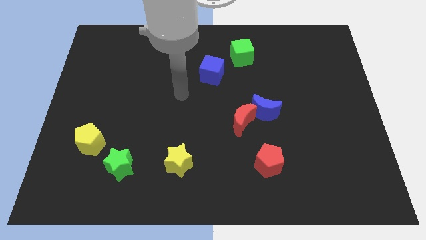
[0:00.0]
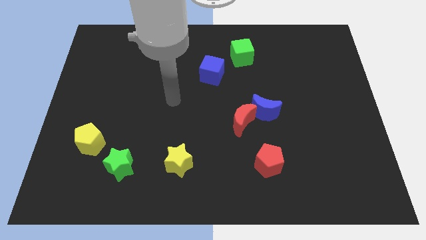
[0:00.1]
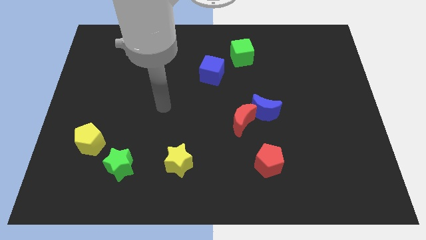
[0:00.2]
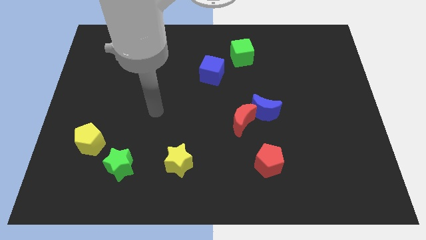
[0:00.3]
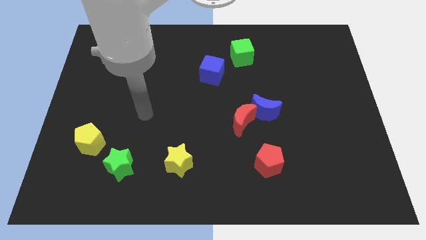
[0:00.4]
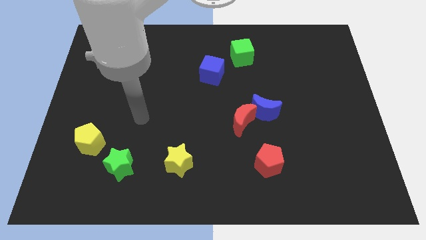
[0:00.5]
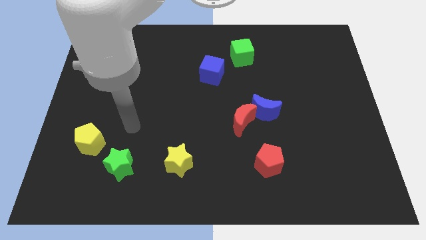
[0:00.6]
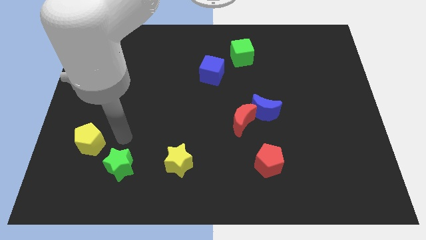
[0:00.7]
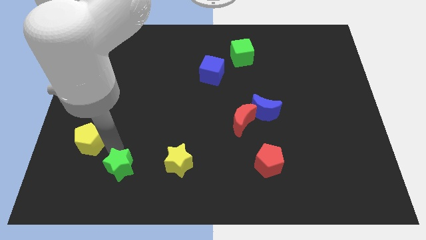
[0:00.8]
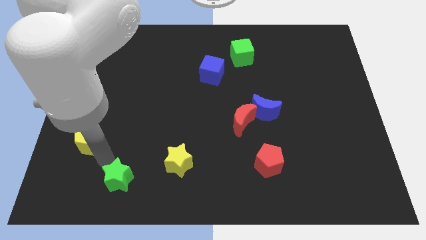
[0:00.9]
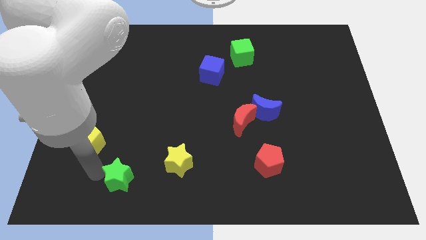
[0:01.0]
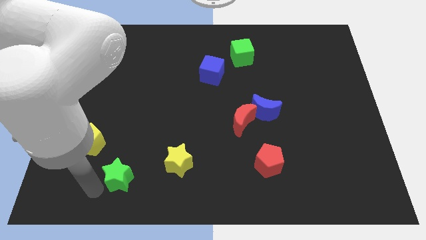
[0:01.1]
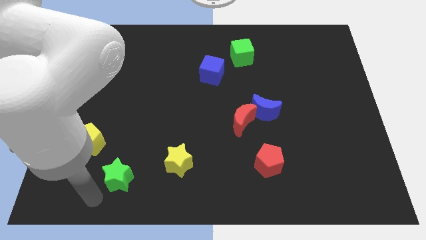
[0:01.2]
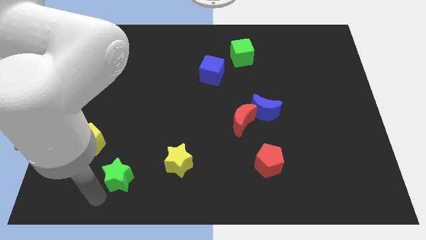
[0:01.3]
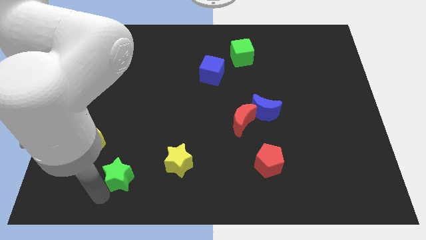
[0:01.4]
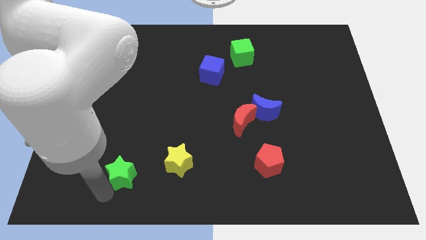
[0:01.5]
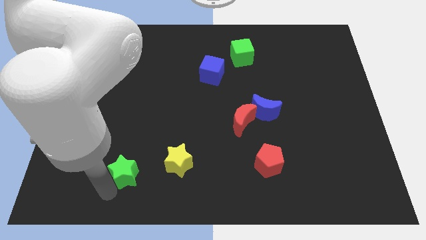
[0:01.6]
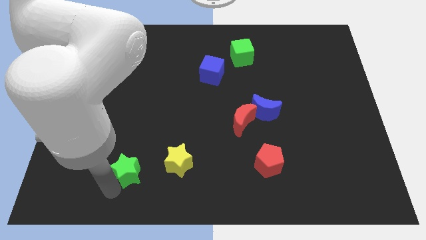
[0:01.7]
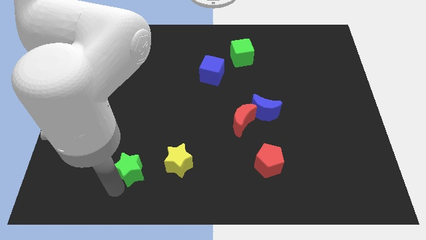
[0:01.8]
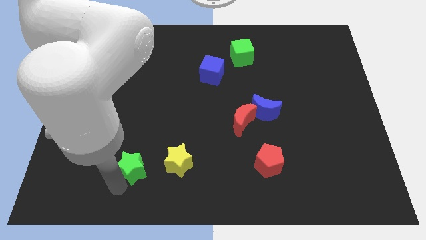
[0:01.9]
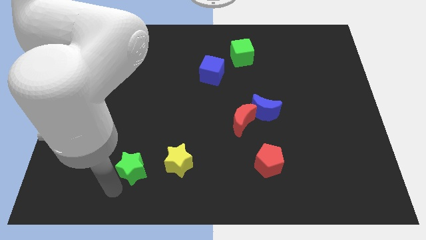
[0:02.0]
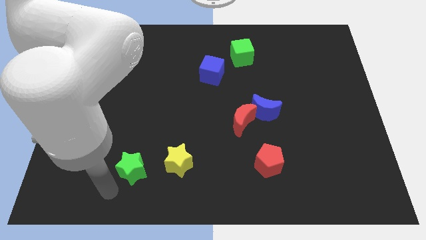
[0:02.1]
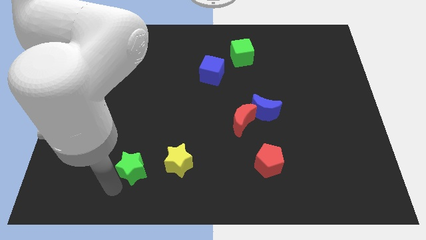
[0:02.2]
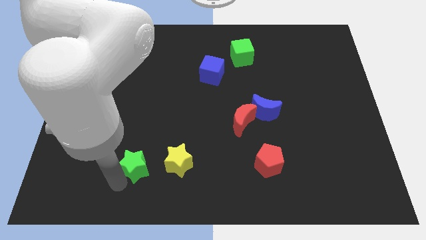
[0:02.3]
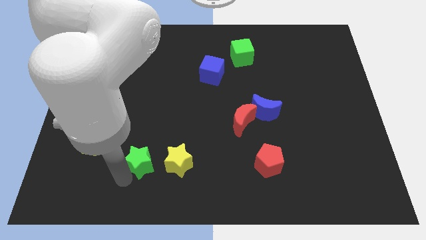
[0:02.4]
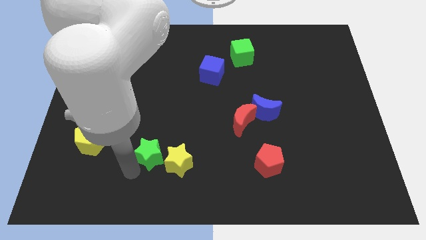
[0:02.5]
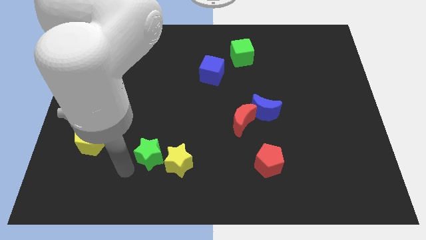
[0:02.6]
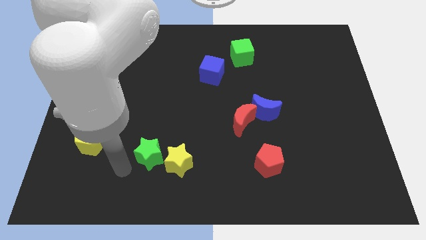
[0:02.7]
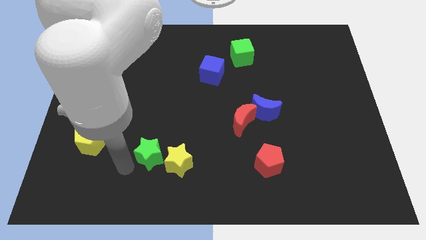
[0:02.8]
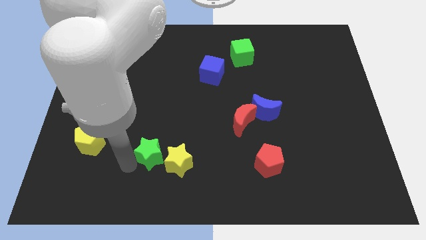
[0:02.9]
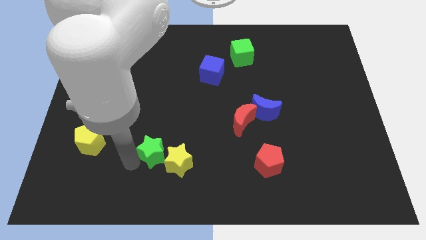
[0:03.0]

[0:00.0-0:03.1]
move the green star diagonally upwards and to the right a bit

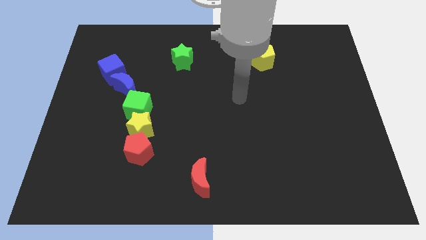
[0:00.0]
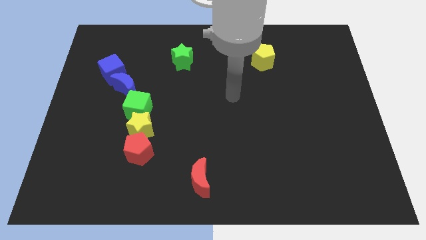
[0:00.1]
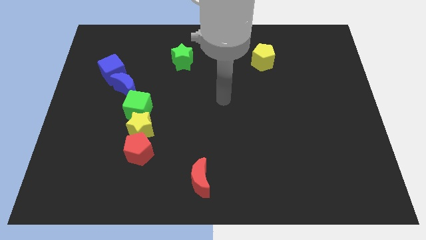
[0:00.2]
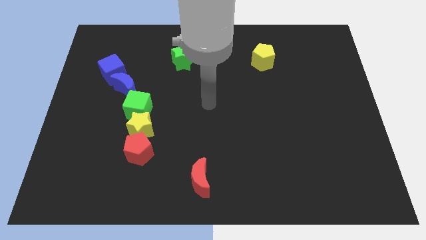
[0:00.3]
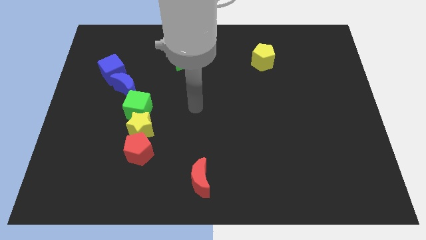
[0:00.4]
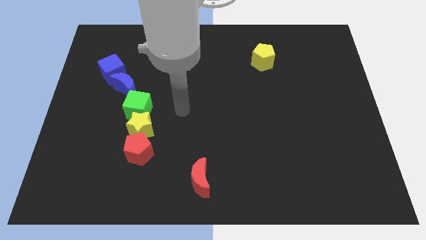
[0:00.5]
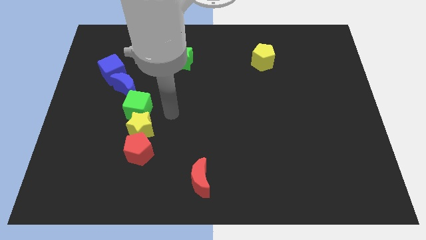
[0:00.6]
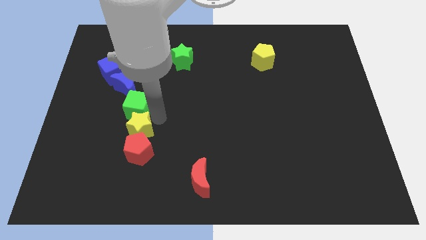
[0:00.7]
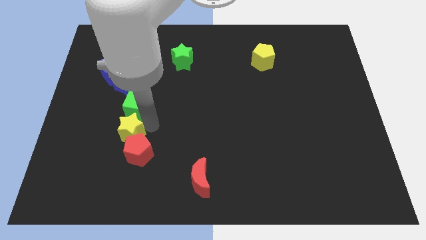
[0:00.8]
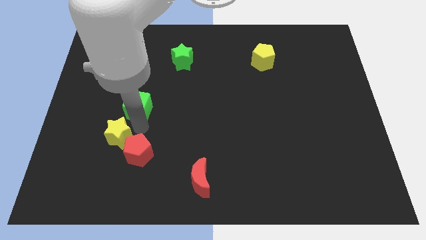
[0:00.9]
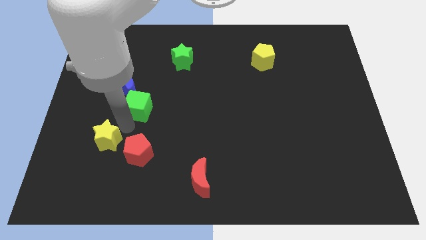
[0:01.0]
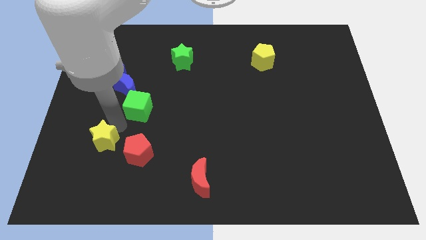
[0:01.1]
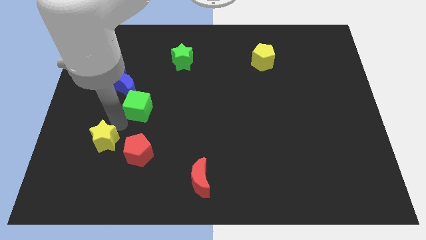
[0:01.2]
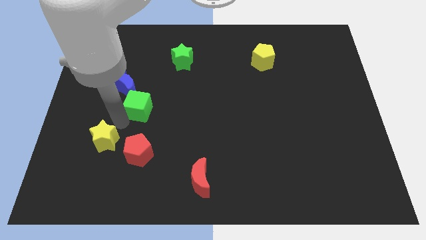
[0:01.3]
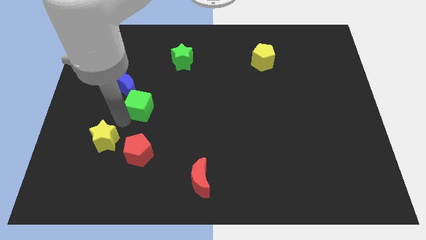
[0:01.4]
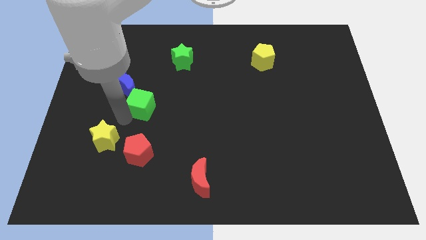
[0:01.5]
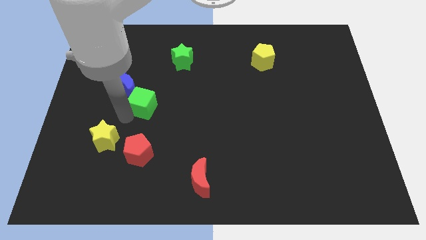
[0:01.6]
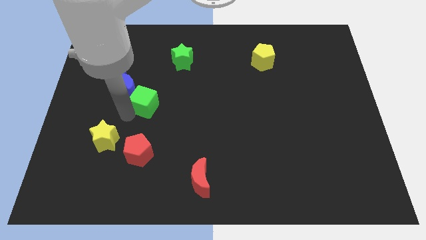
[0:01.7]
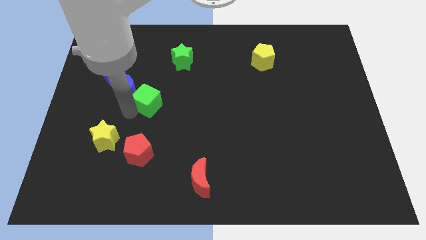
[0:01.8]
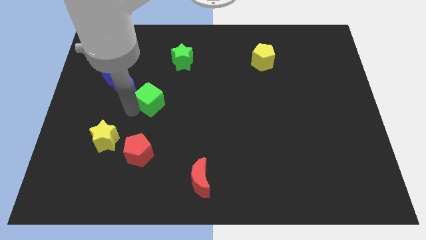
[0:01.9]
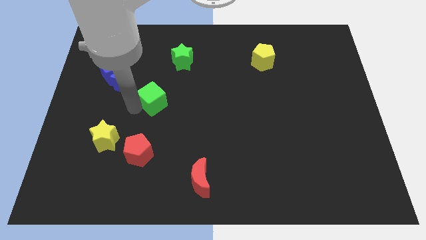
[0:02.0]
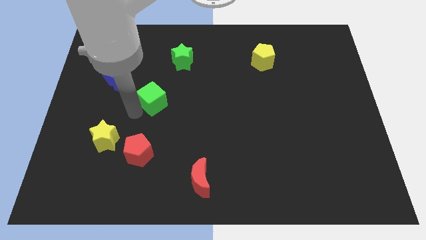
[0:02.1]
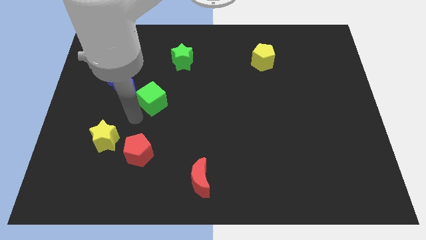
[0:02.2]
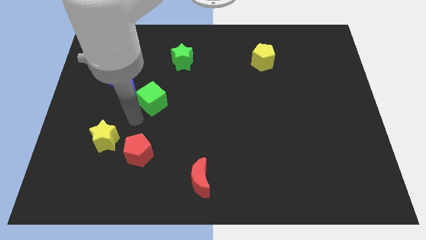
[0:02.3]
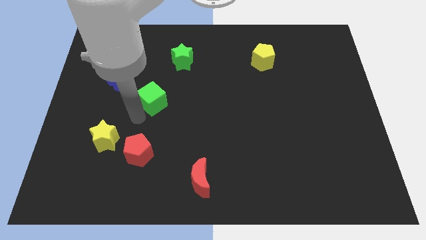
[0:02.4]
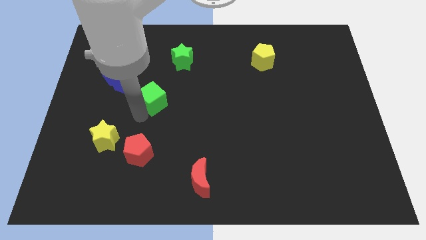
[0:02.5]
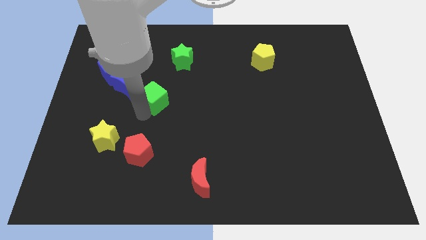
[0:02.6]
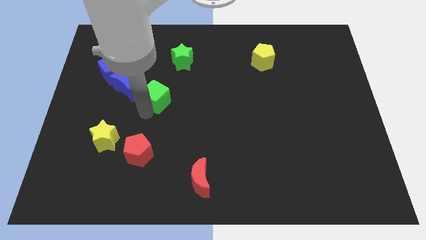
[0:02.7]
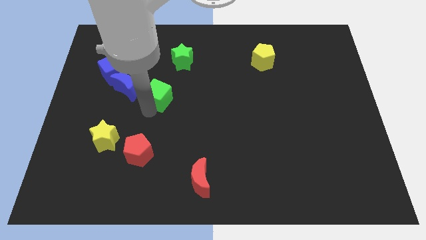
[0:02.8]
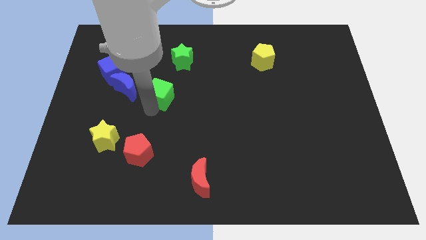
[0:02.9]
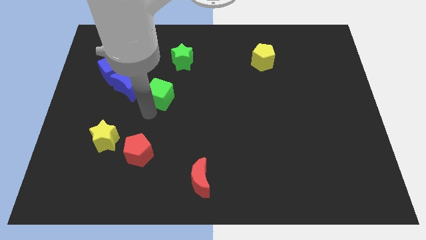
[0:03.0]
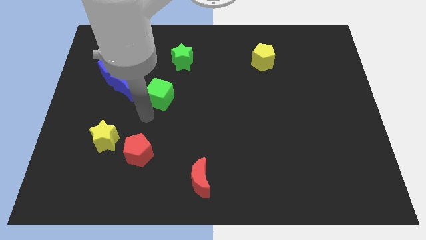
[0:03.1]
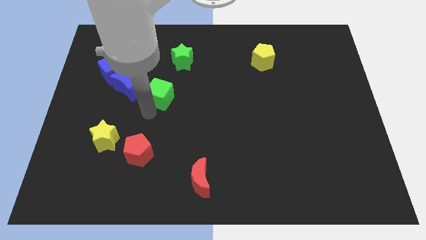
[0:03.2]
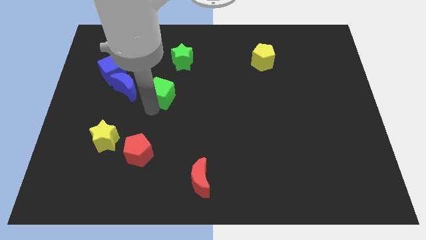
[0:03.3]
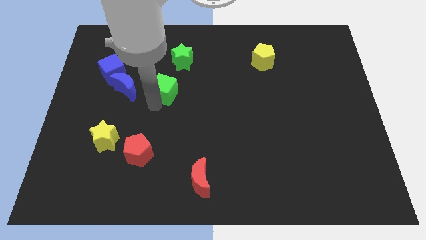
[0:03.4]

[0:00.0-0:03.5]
slide the green cube a bit diagonally upwards and to the right

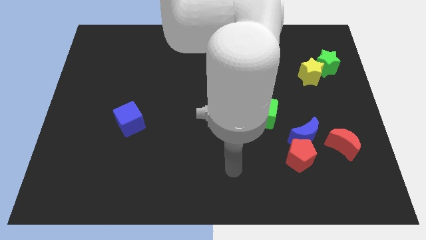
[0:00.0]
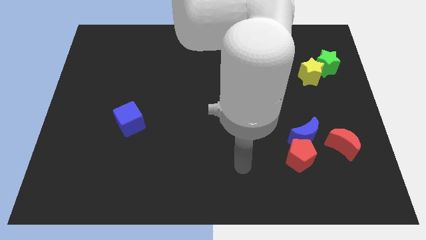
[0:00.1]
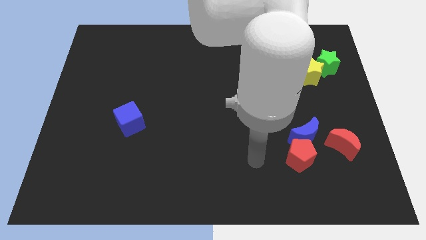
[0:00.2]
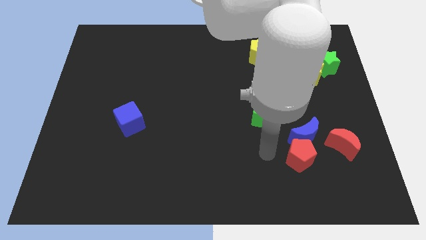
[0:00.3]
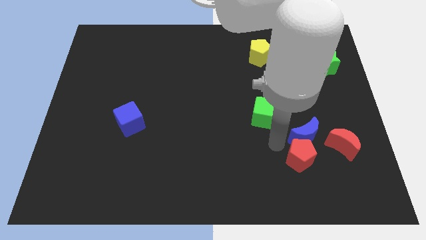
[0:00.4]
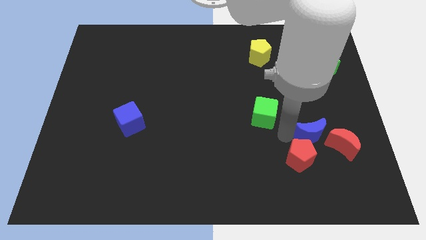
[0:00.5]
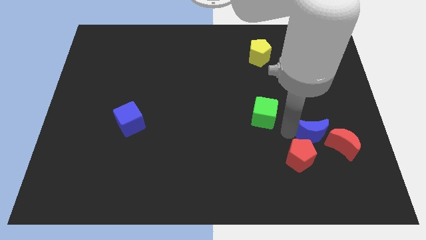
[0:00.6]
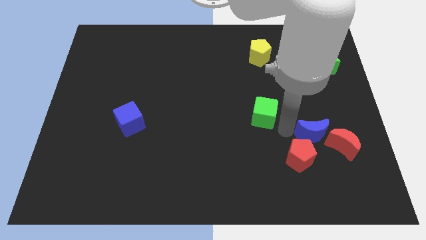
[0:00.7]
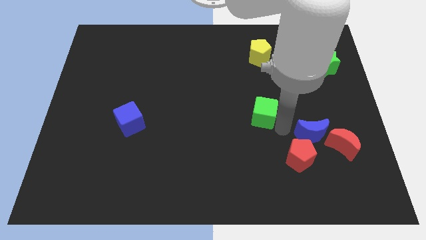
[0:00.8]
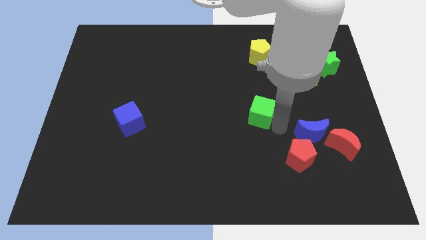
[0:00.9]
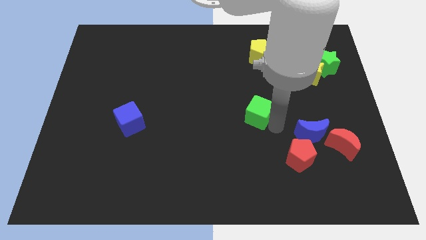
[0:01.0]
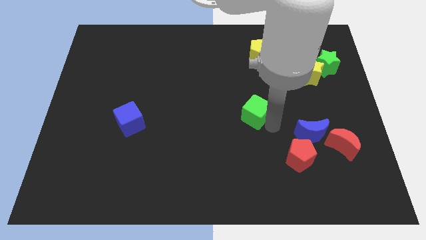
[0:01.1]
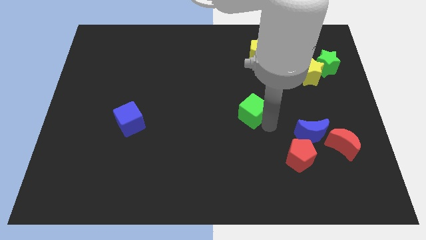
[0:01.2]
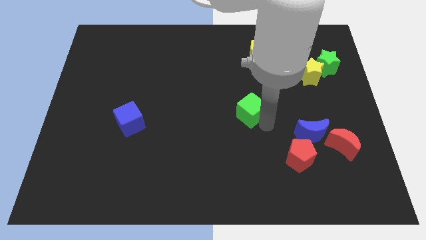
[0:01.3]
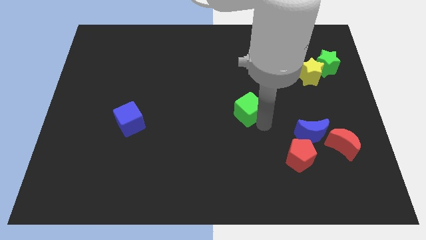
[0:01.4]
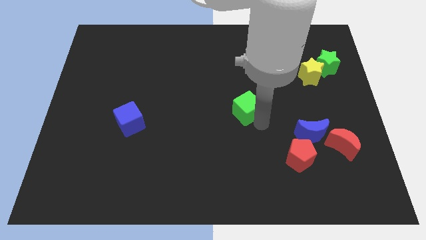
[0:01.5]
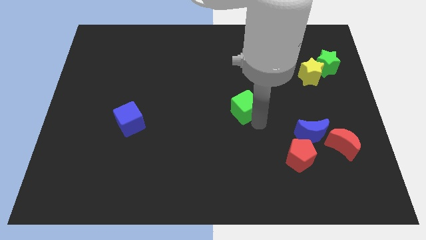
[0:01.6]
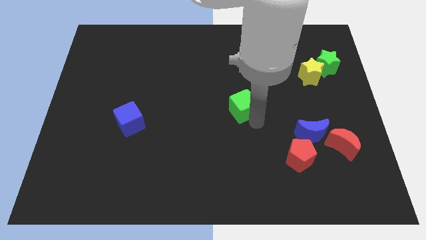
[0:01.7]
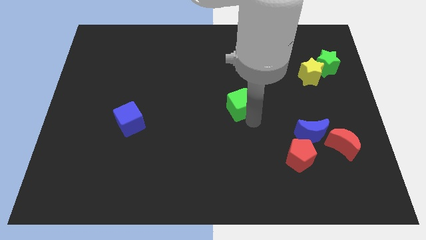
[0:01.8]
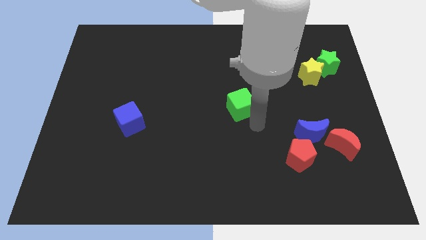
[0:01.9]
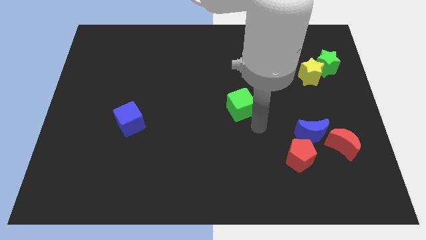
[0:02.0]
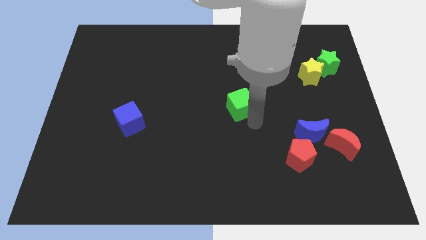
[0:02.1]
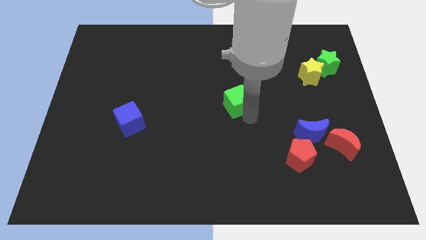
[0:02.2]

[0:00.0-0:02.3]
slightly push the green cube upwards and then to the left
